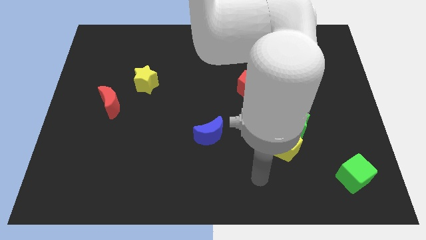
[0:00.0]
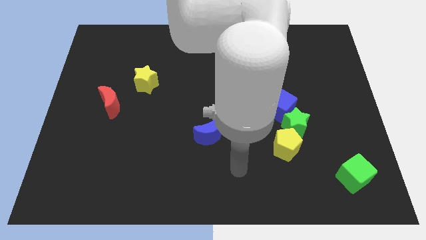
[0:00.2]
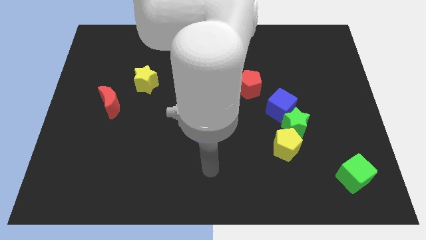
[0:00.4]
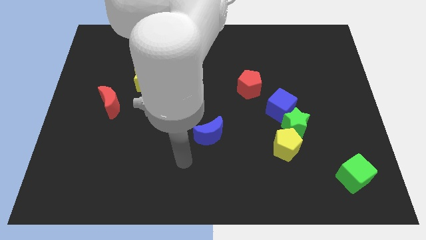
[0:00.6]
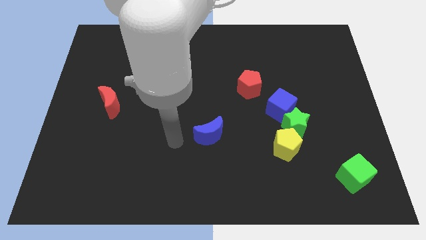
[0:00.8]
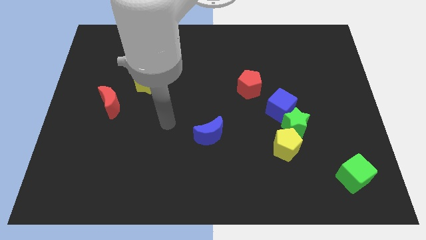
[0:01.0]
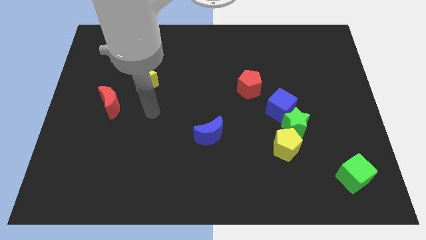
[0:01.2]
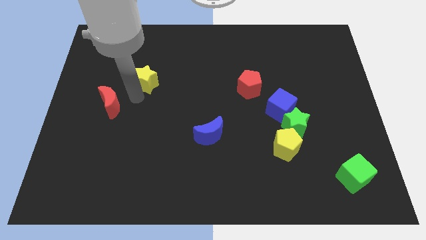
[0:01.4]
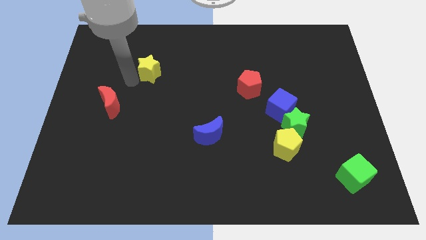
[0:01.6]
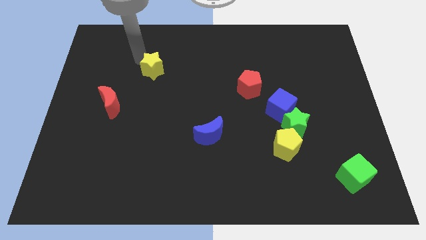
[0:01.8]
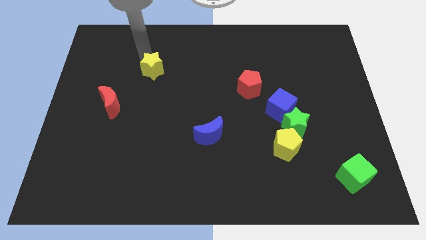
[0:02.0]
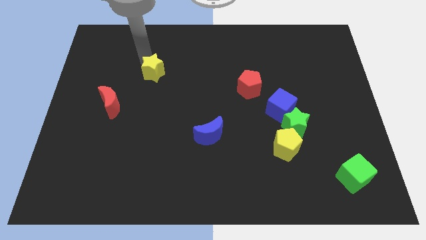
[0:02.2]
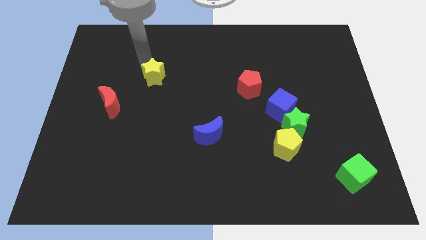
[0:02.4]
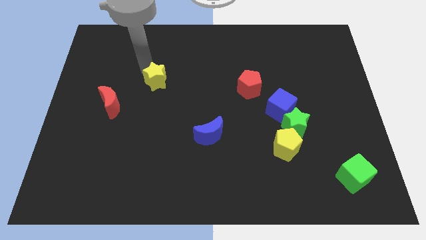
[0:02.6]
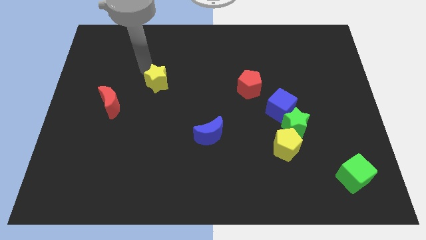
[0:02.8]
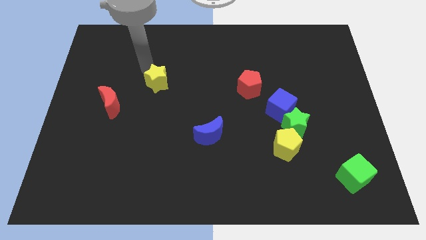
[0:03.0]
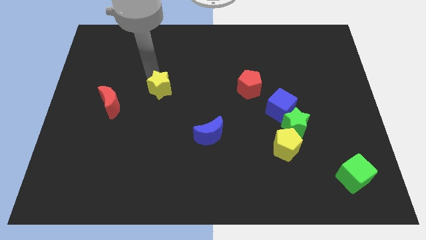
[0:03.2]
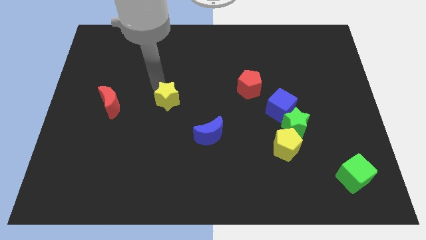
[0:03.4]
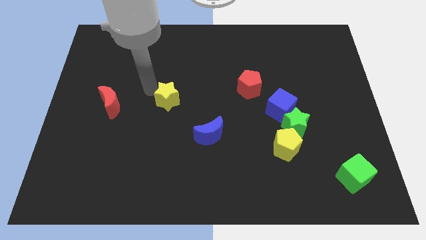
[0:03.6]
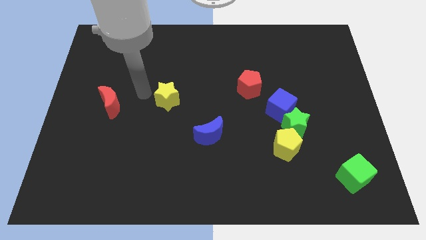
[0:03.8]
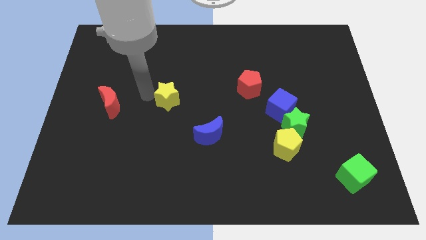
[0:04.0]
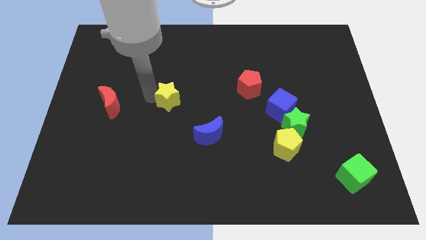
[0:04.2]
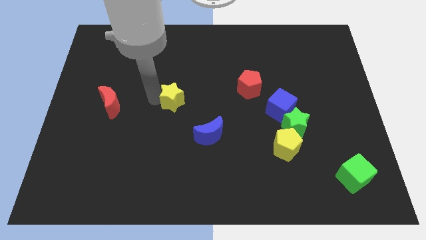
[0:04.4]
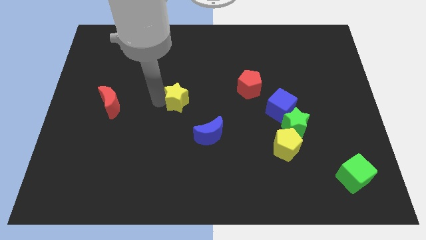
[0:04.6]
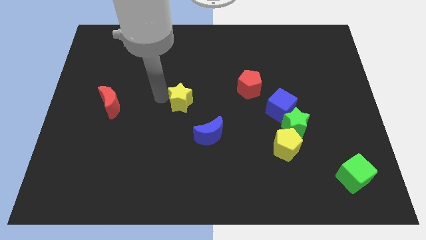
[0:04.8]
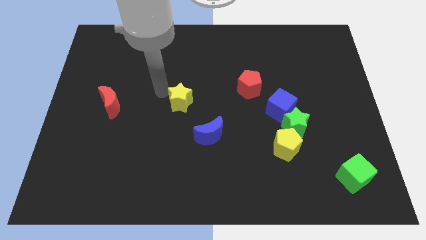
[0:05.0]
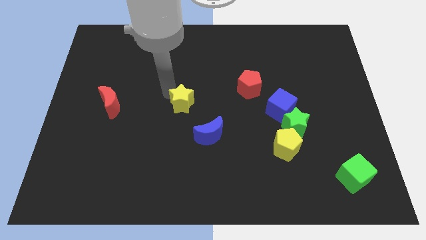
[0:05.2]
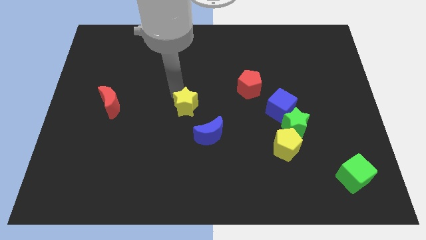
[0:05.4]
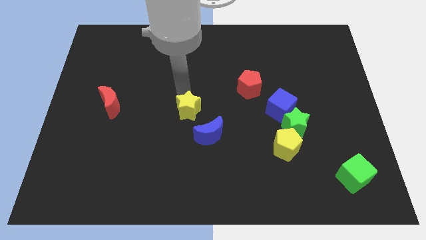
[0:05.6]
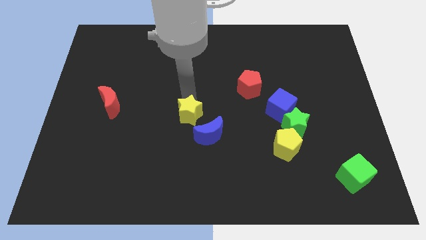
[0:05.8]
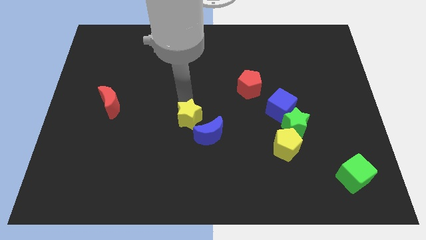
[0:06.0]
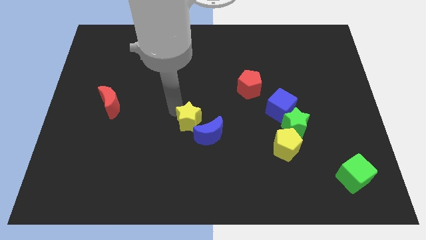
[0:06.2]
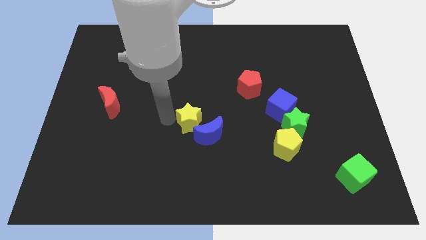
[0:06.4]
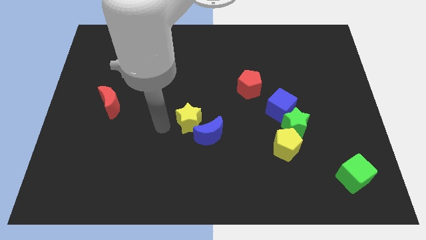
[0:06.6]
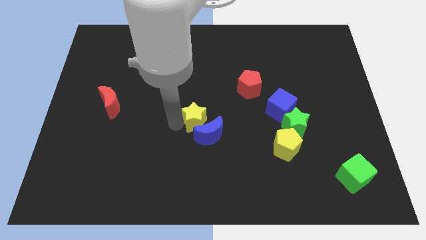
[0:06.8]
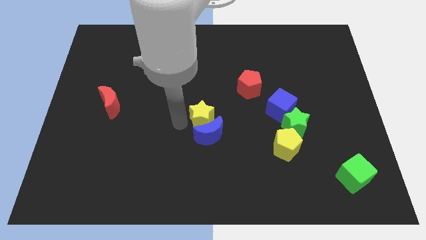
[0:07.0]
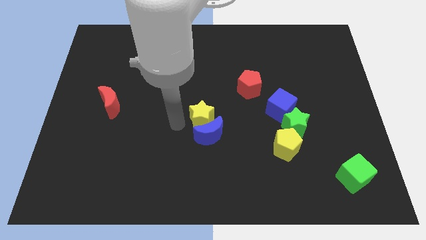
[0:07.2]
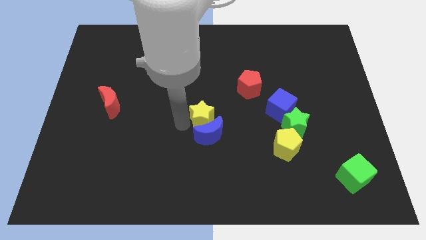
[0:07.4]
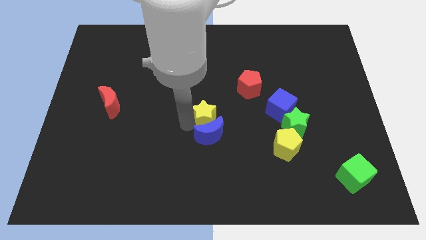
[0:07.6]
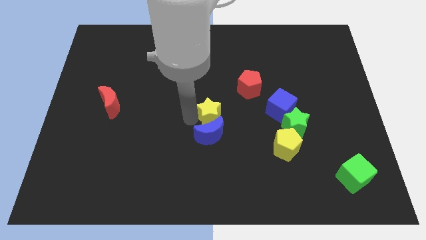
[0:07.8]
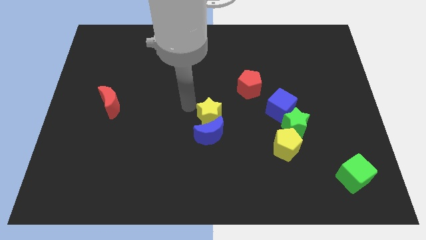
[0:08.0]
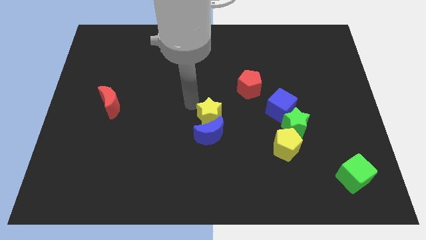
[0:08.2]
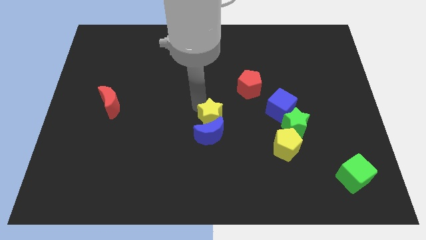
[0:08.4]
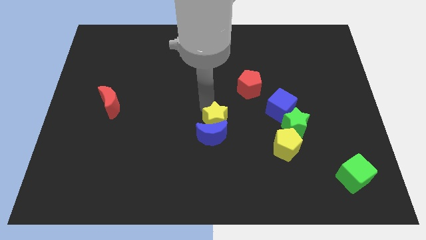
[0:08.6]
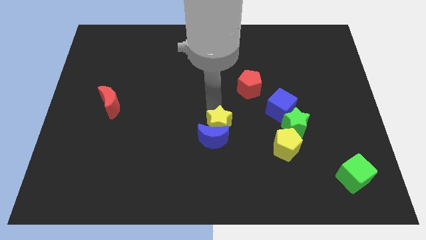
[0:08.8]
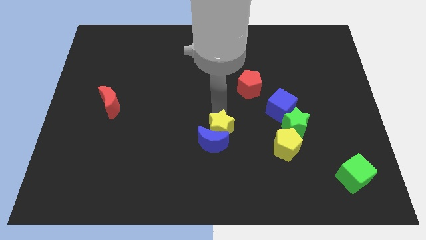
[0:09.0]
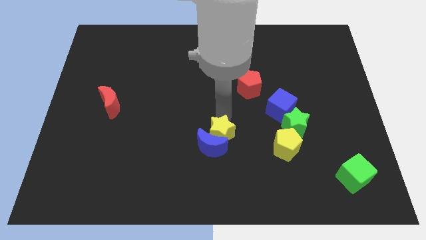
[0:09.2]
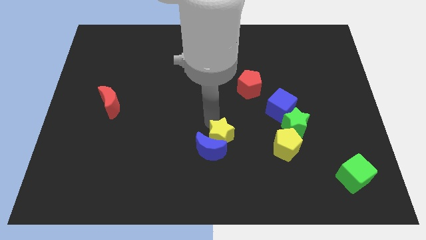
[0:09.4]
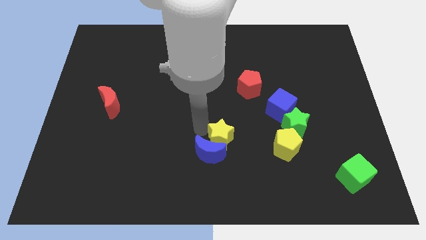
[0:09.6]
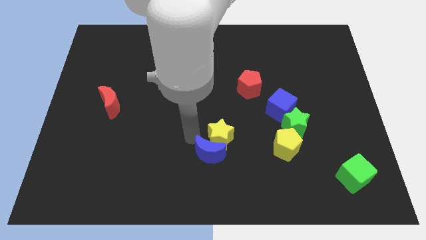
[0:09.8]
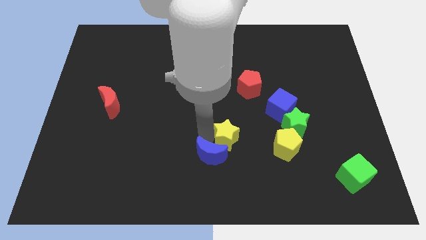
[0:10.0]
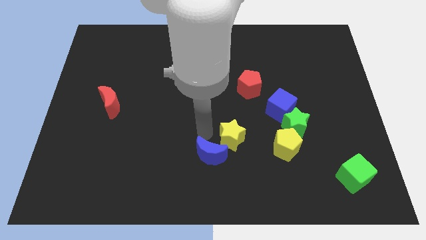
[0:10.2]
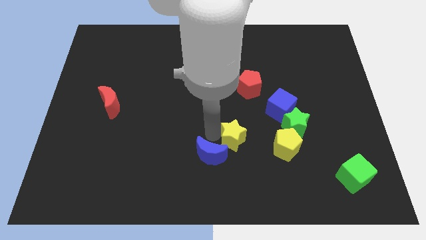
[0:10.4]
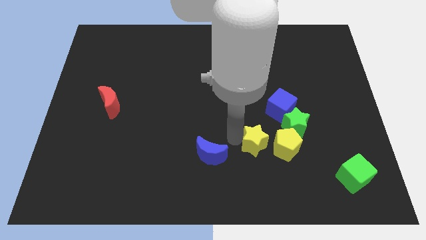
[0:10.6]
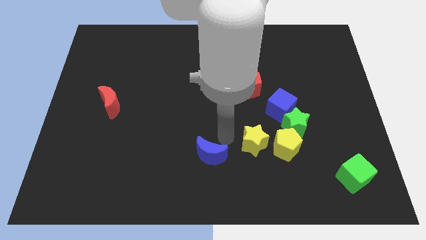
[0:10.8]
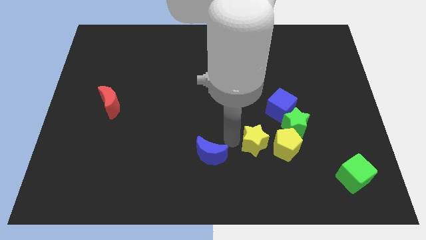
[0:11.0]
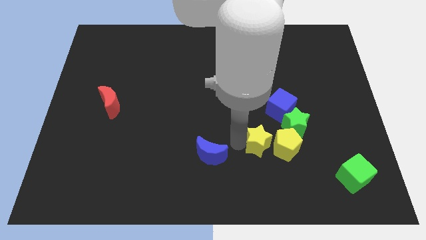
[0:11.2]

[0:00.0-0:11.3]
move the yellow star to the yellow pentagon

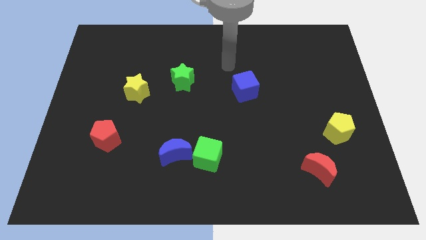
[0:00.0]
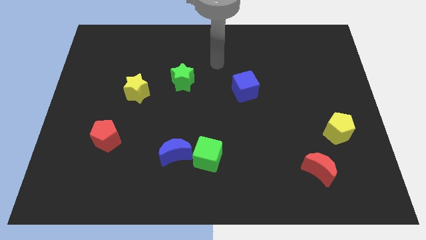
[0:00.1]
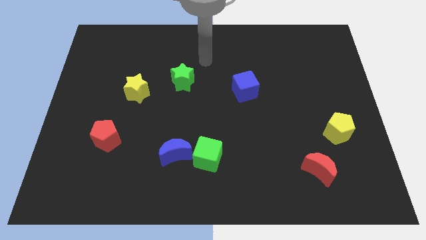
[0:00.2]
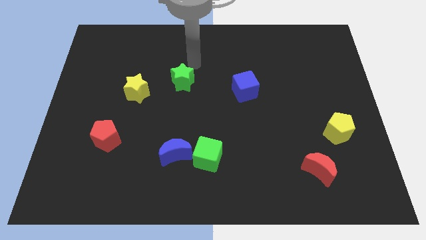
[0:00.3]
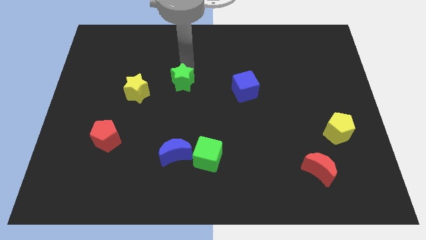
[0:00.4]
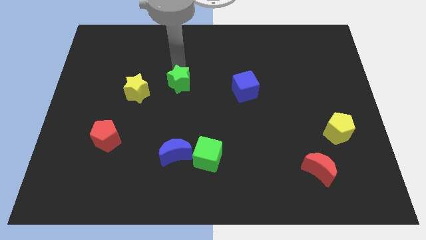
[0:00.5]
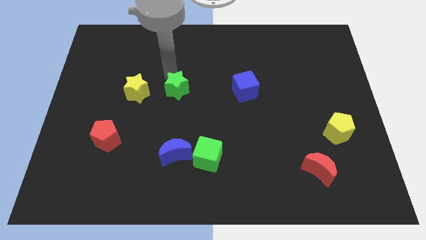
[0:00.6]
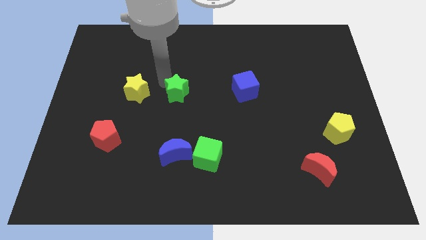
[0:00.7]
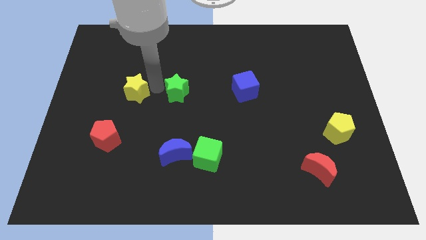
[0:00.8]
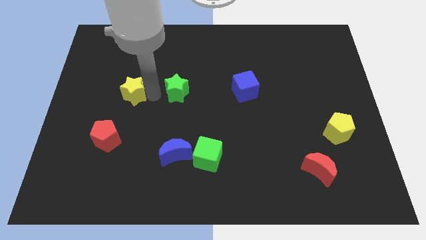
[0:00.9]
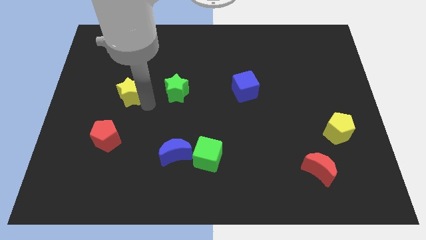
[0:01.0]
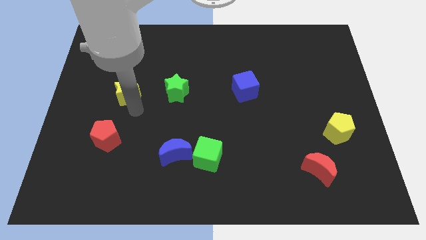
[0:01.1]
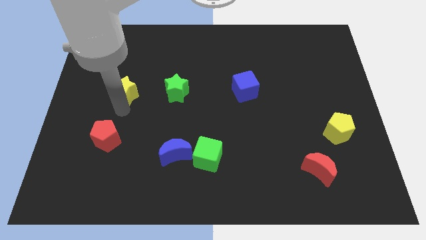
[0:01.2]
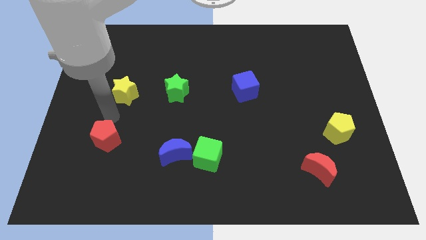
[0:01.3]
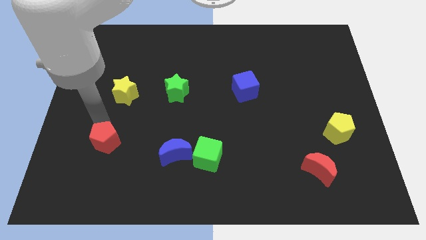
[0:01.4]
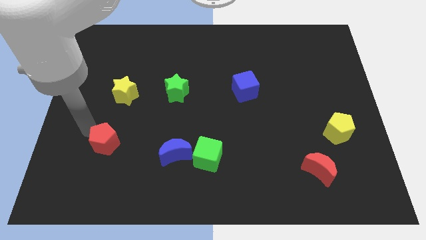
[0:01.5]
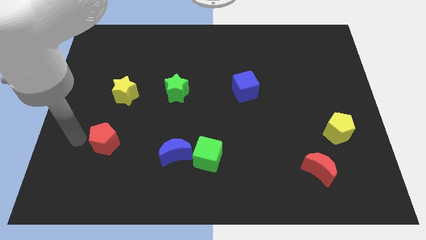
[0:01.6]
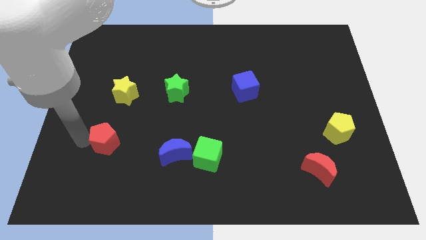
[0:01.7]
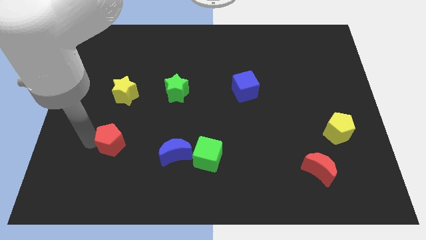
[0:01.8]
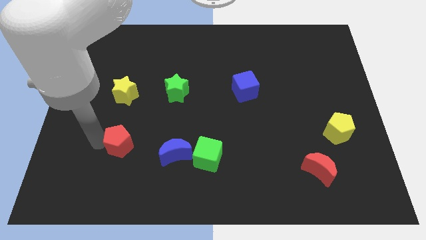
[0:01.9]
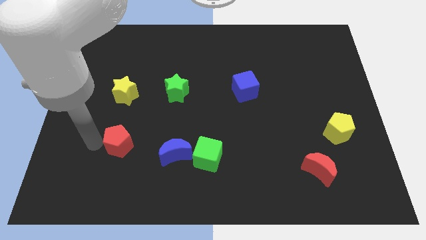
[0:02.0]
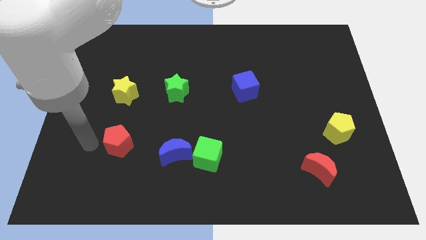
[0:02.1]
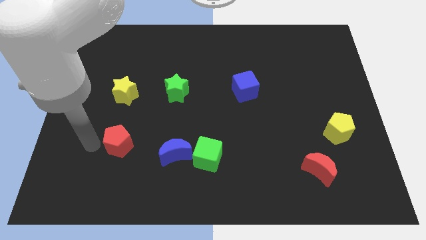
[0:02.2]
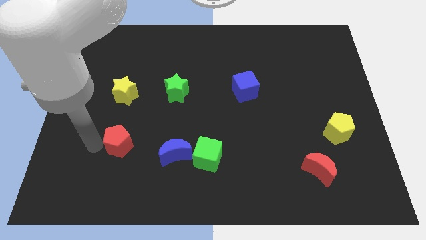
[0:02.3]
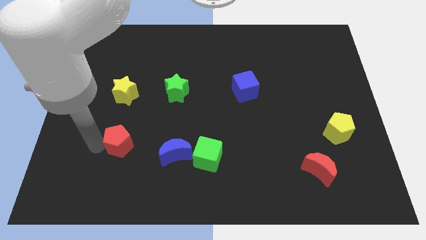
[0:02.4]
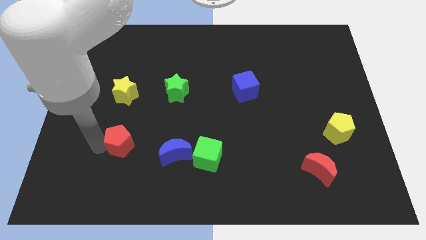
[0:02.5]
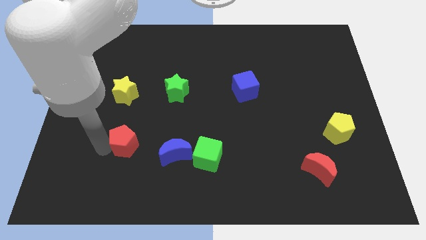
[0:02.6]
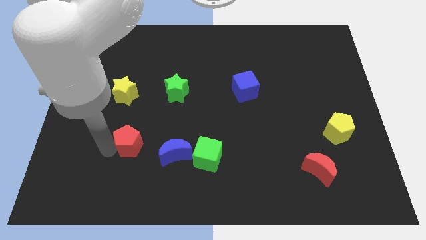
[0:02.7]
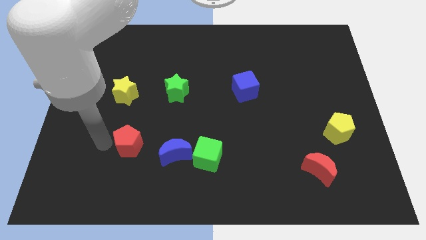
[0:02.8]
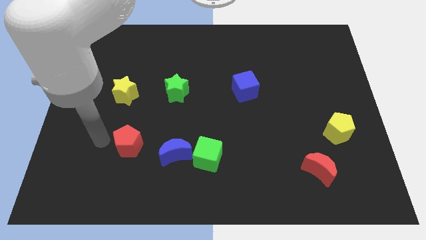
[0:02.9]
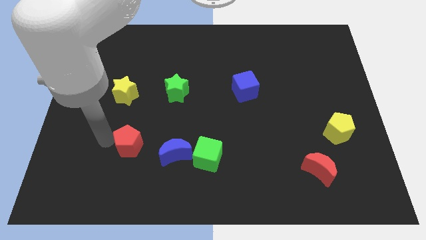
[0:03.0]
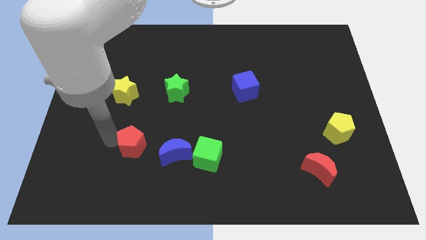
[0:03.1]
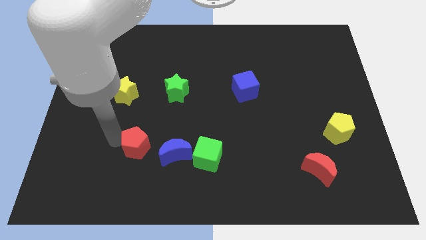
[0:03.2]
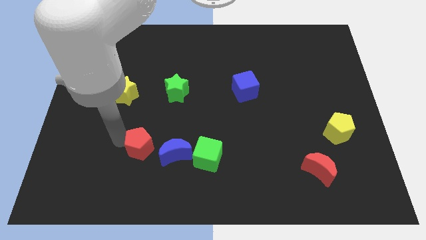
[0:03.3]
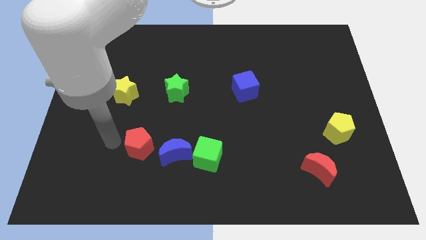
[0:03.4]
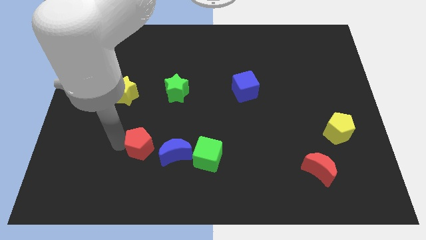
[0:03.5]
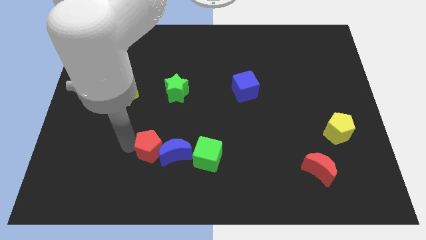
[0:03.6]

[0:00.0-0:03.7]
put the red pentagon close to the blue moon
